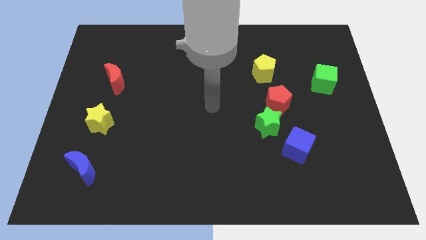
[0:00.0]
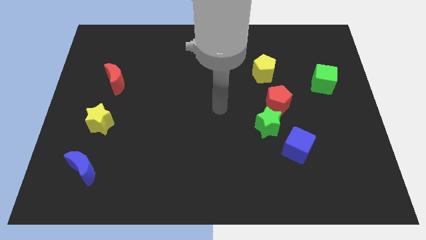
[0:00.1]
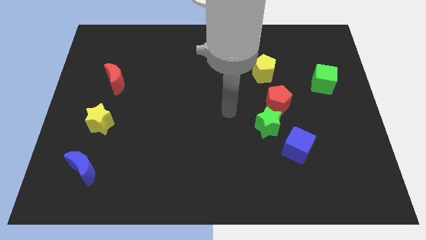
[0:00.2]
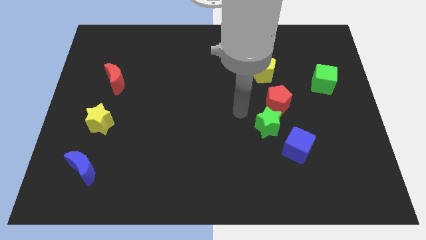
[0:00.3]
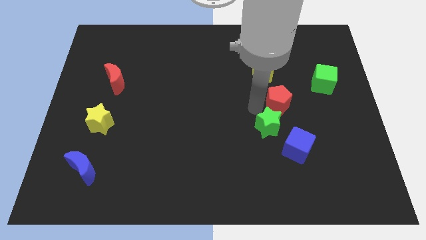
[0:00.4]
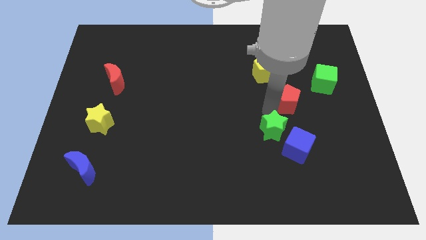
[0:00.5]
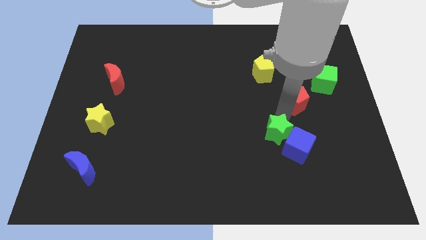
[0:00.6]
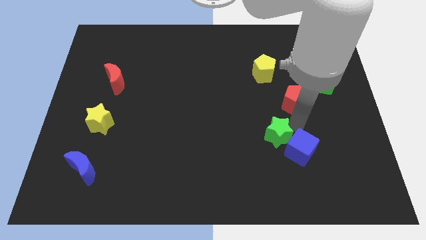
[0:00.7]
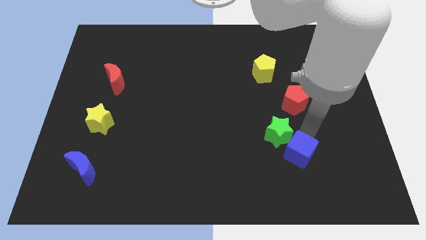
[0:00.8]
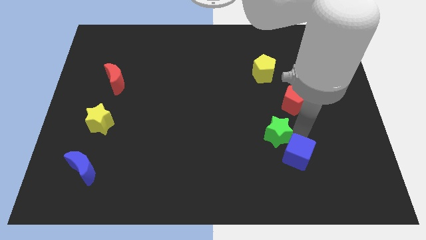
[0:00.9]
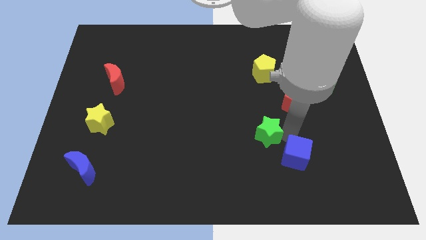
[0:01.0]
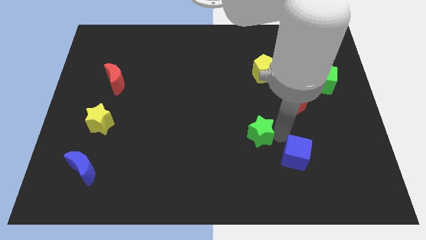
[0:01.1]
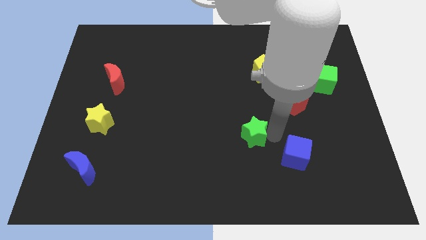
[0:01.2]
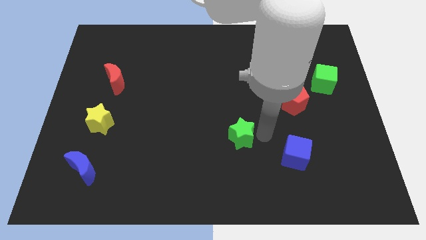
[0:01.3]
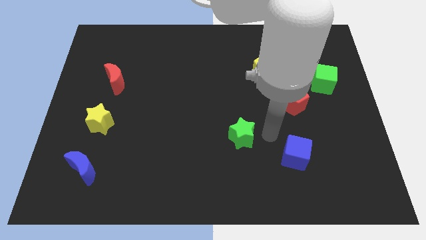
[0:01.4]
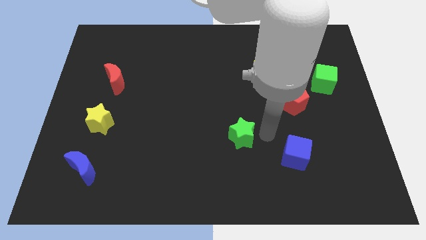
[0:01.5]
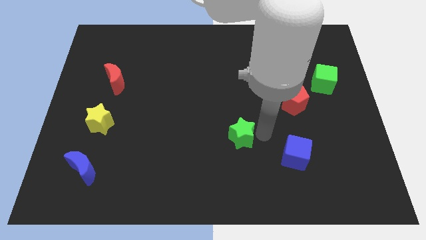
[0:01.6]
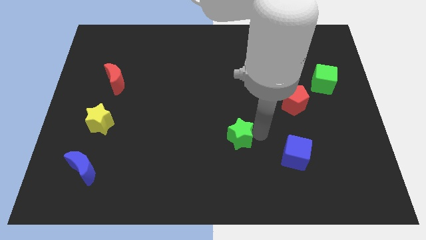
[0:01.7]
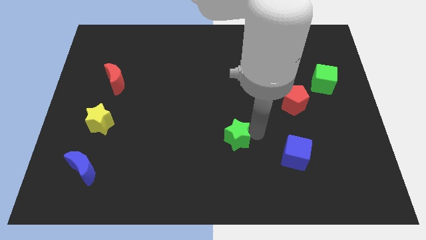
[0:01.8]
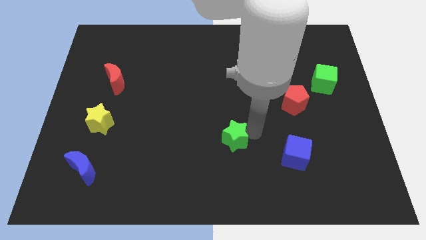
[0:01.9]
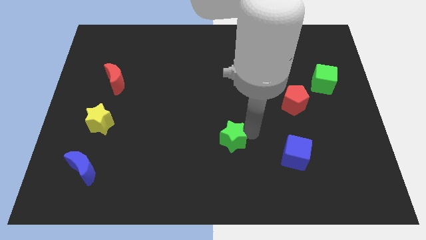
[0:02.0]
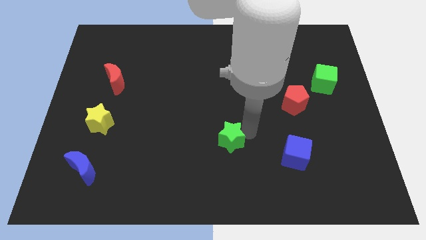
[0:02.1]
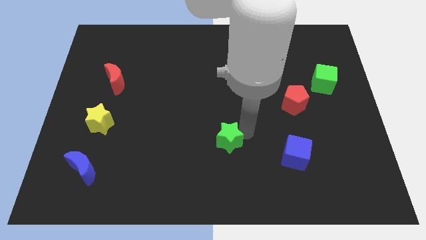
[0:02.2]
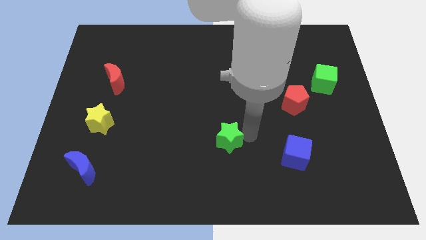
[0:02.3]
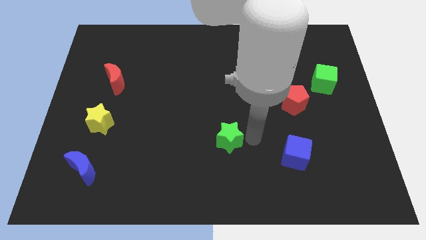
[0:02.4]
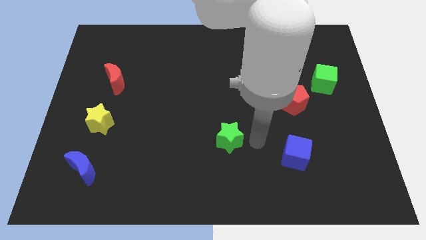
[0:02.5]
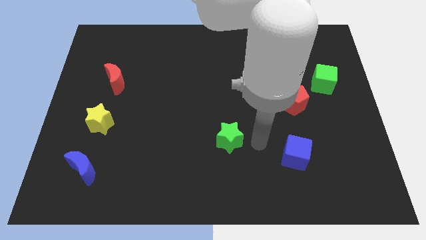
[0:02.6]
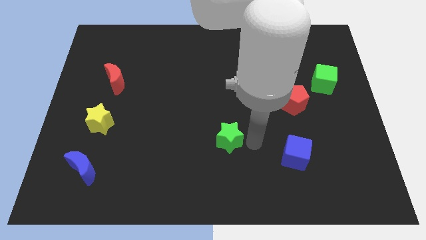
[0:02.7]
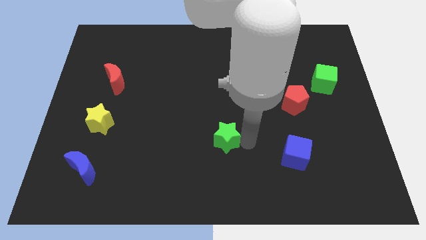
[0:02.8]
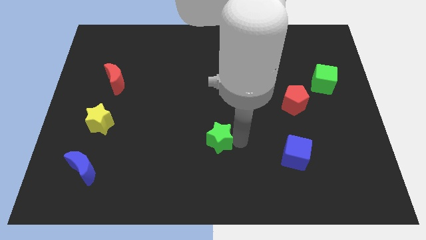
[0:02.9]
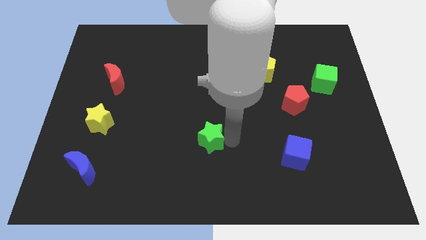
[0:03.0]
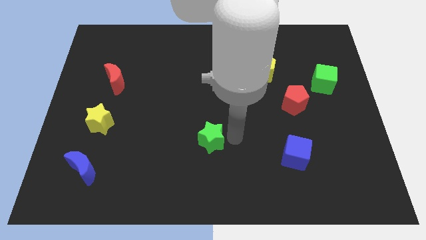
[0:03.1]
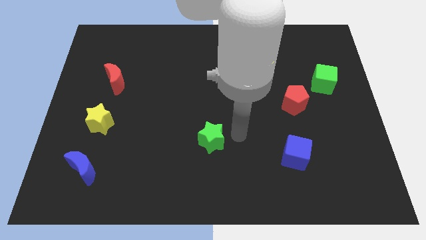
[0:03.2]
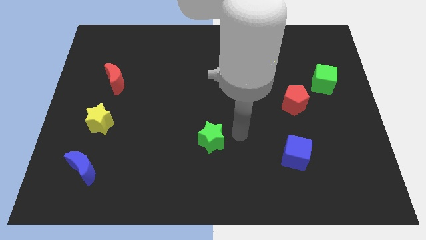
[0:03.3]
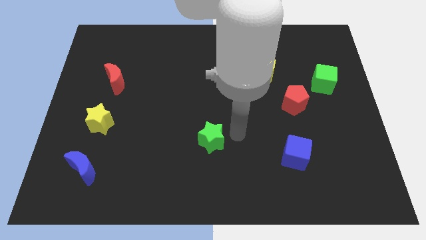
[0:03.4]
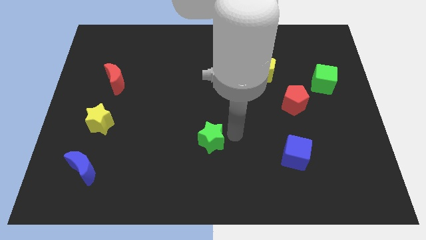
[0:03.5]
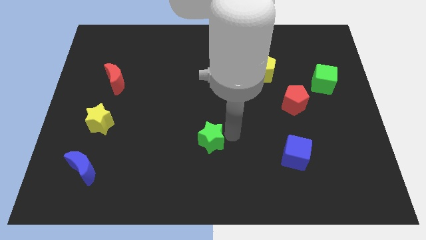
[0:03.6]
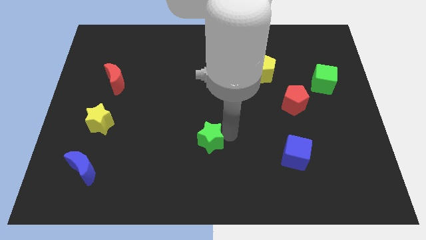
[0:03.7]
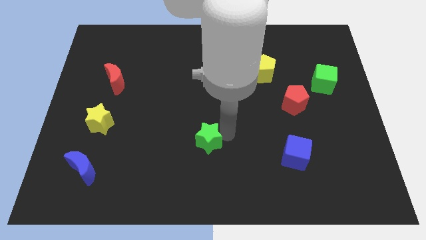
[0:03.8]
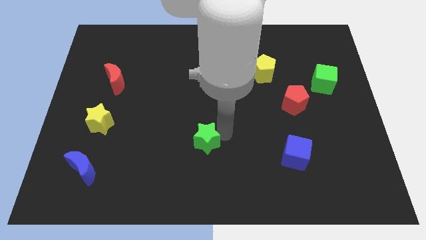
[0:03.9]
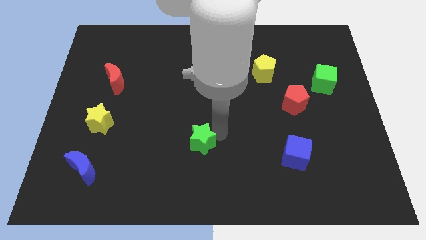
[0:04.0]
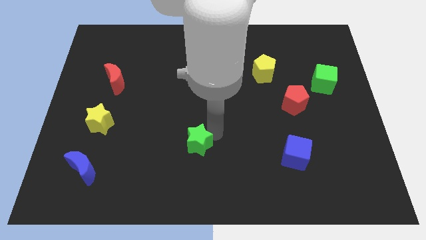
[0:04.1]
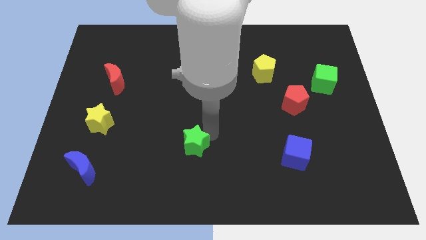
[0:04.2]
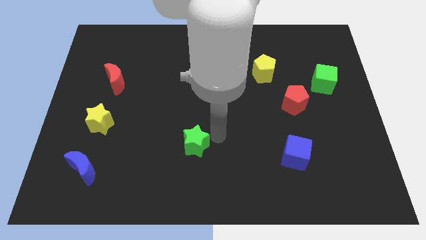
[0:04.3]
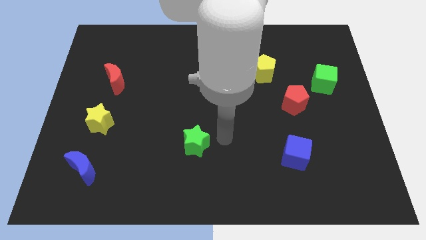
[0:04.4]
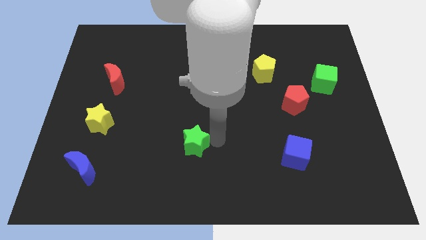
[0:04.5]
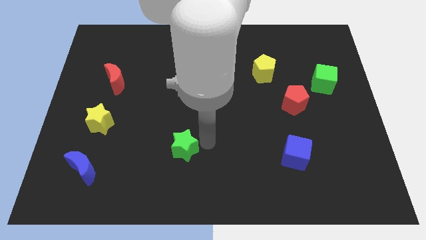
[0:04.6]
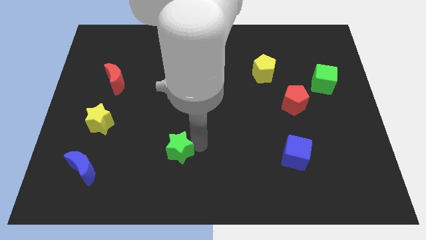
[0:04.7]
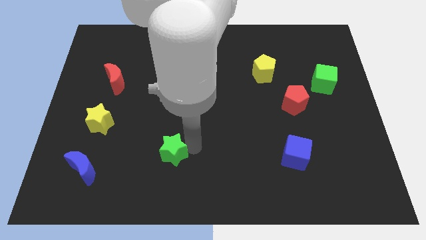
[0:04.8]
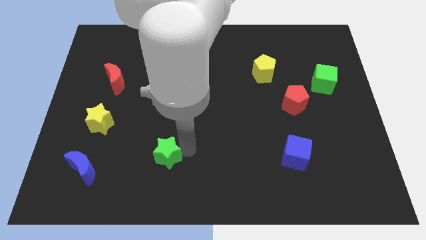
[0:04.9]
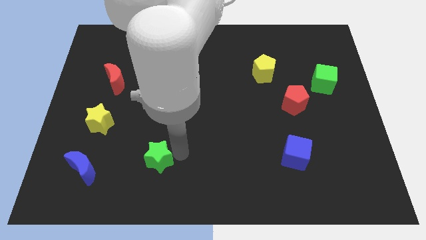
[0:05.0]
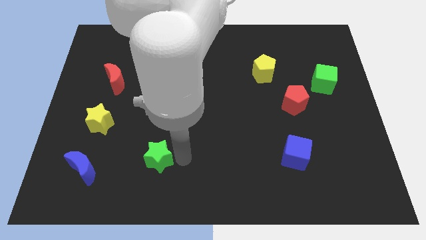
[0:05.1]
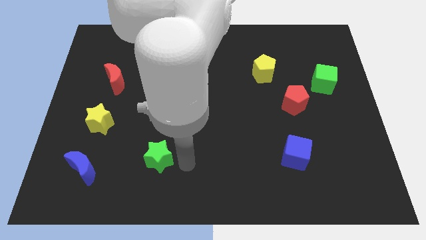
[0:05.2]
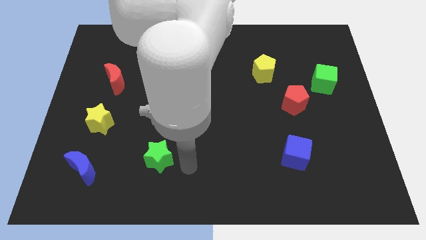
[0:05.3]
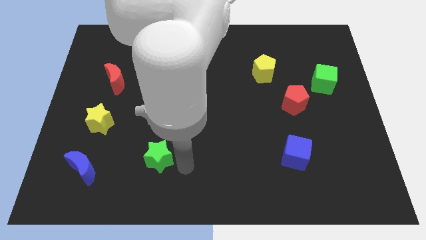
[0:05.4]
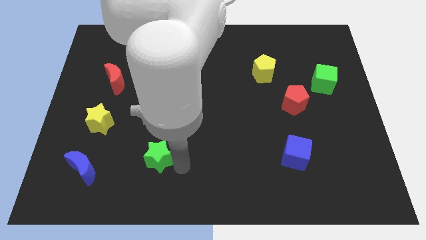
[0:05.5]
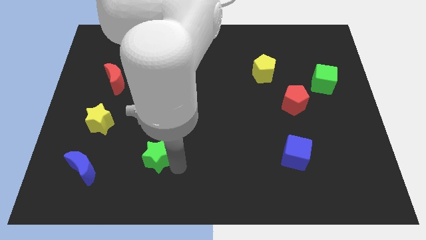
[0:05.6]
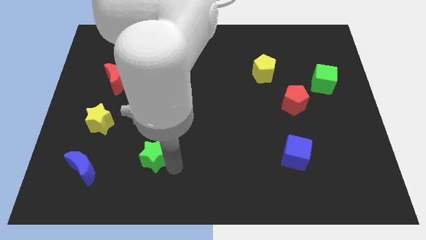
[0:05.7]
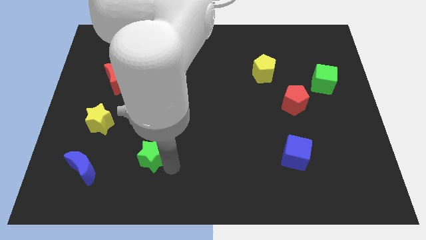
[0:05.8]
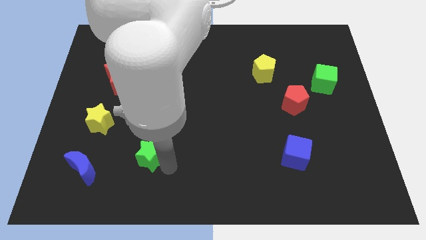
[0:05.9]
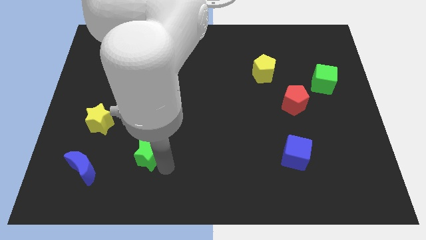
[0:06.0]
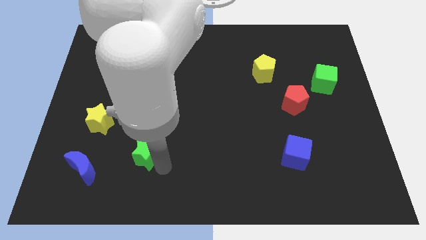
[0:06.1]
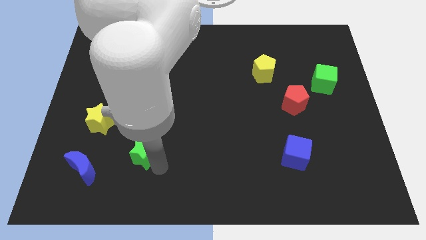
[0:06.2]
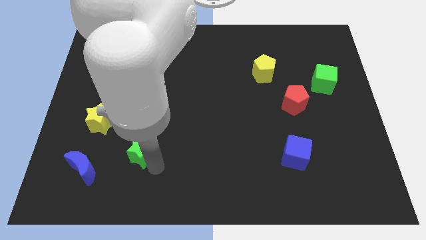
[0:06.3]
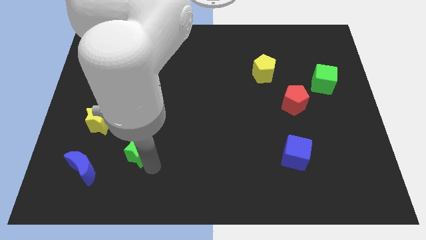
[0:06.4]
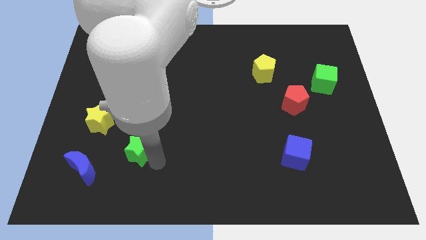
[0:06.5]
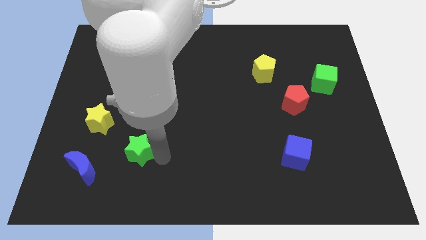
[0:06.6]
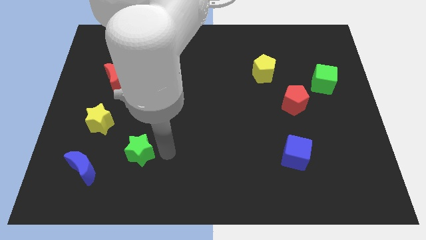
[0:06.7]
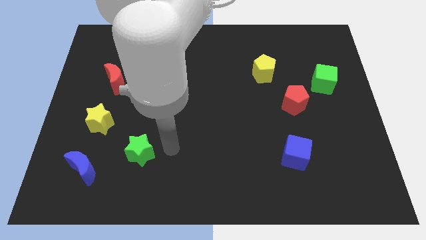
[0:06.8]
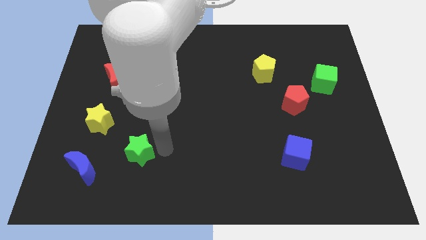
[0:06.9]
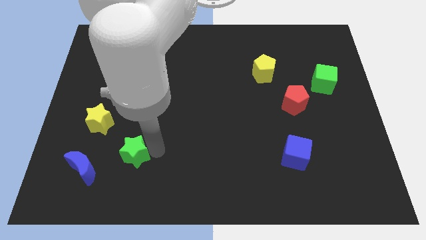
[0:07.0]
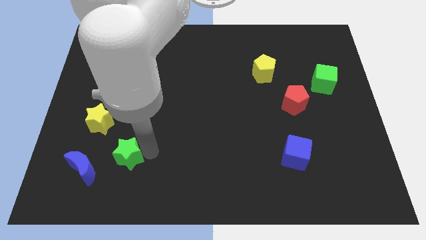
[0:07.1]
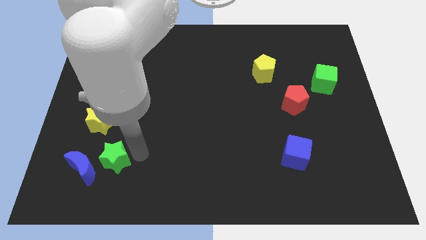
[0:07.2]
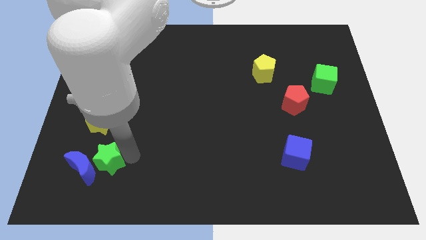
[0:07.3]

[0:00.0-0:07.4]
put the green star next to the blue moon
